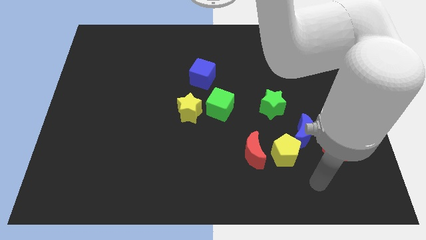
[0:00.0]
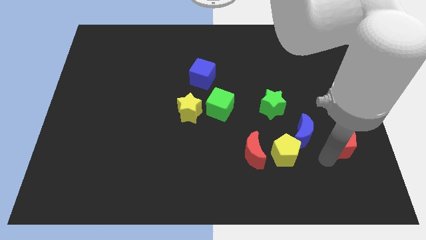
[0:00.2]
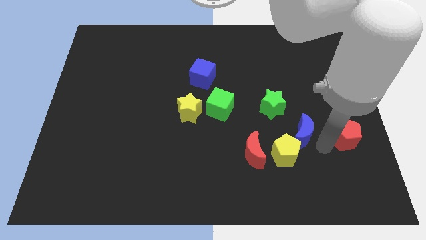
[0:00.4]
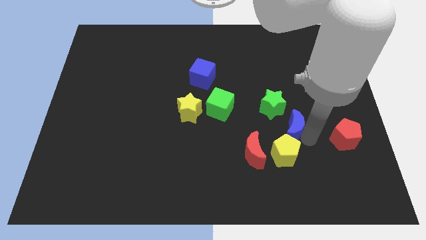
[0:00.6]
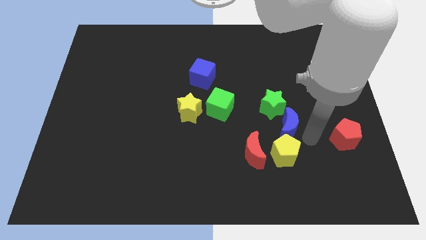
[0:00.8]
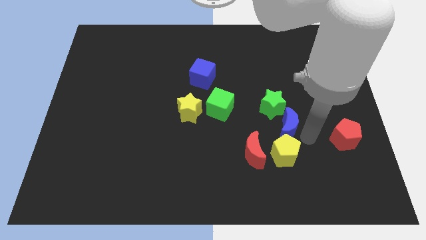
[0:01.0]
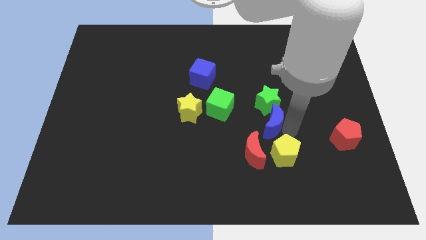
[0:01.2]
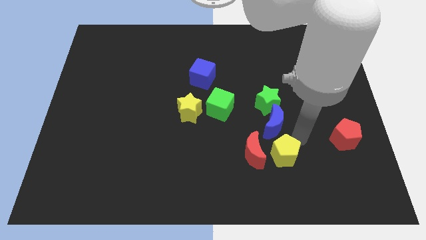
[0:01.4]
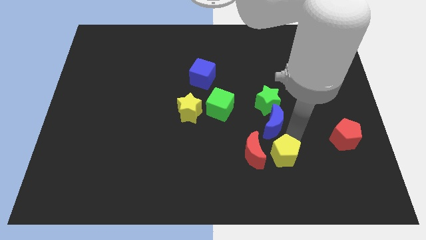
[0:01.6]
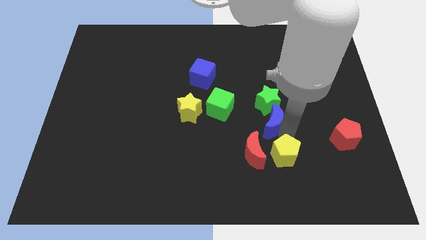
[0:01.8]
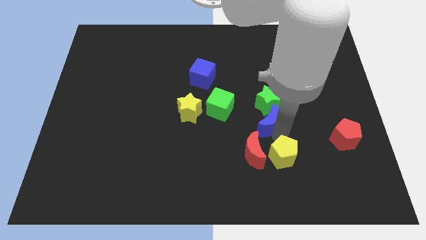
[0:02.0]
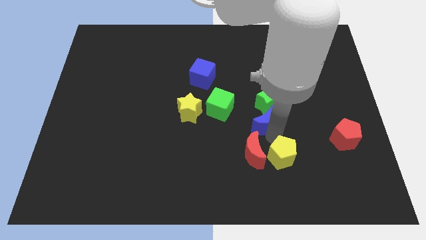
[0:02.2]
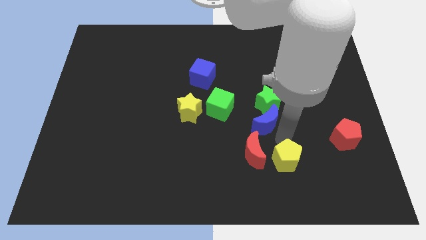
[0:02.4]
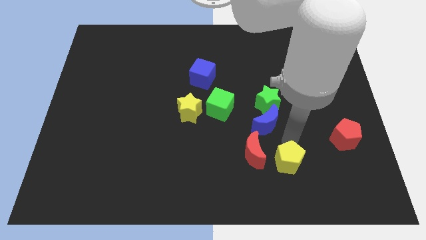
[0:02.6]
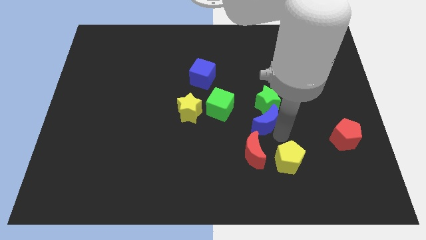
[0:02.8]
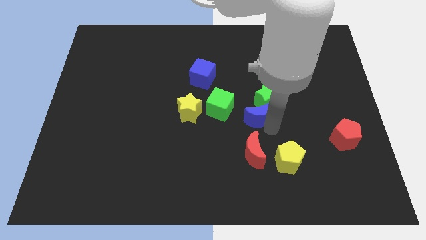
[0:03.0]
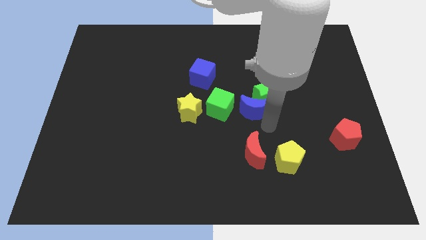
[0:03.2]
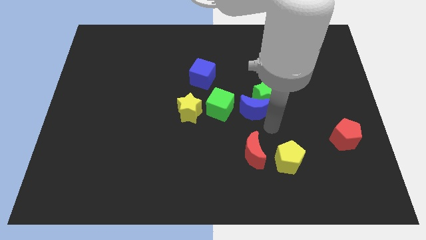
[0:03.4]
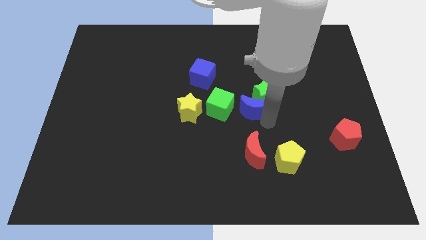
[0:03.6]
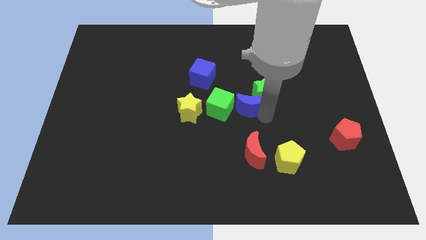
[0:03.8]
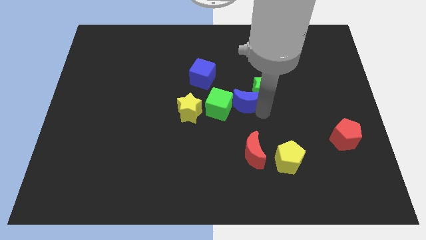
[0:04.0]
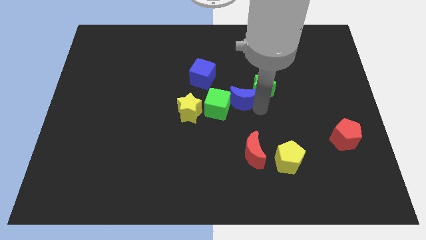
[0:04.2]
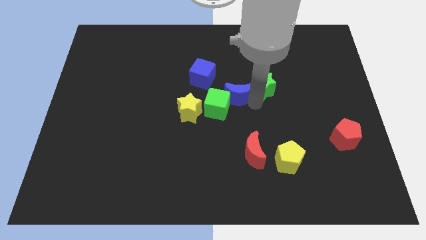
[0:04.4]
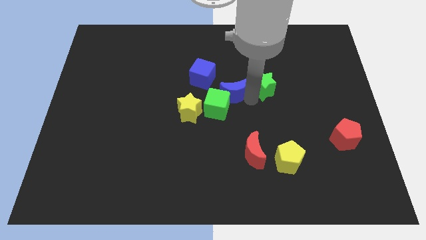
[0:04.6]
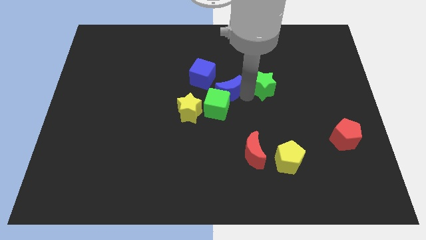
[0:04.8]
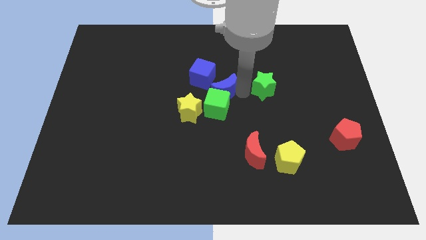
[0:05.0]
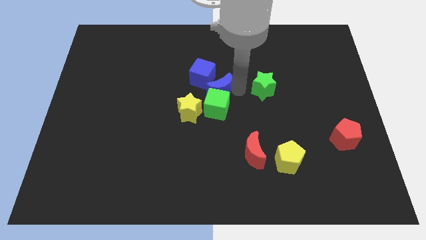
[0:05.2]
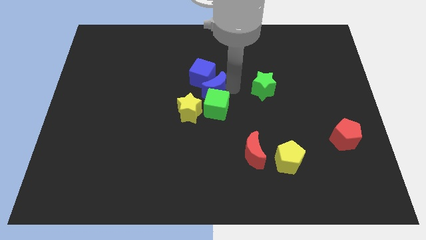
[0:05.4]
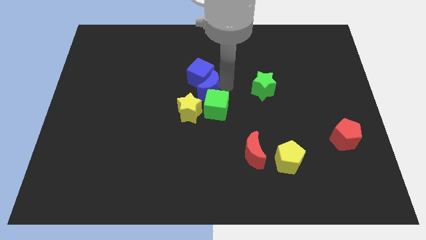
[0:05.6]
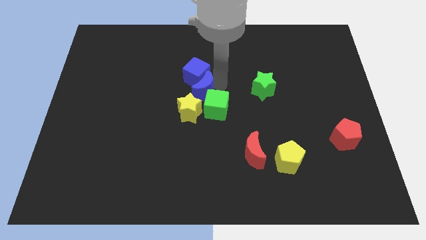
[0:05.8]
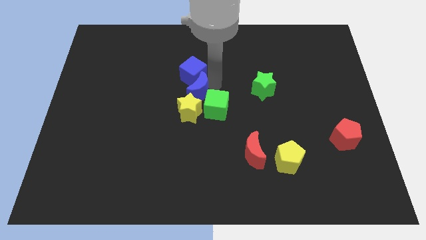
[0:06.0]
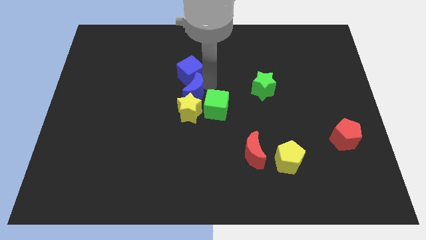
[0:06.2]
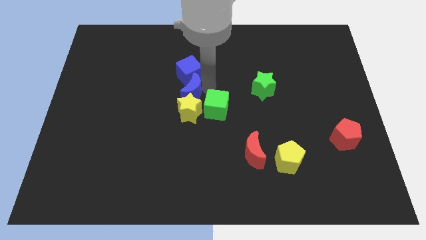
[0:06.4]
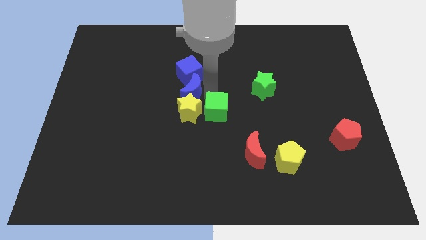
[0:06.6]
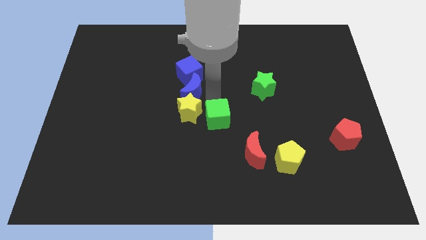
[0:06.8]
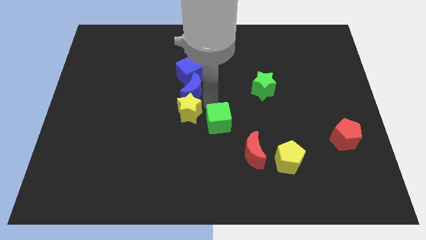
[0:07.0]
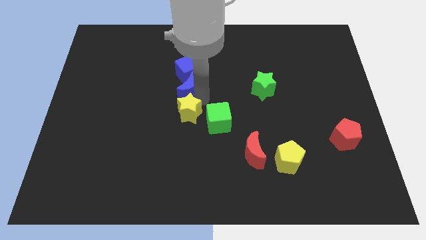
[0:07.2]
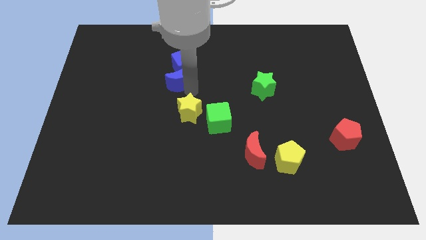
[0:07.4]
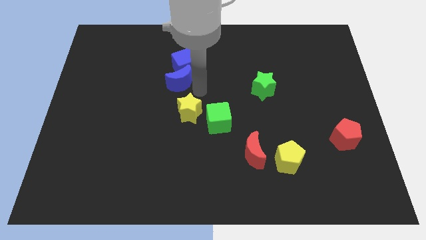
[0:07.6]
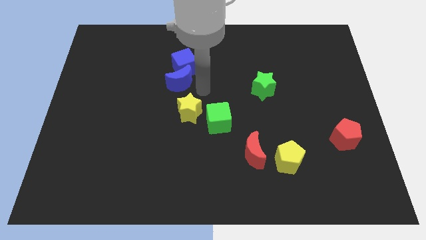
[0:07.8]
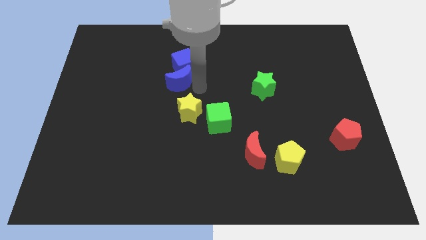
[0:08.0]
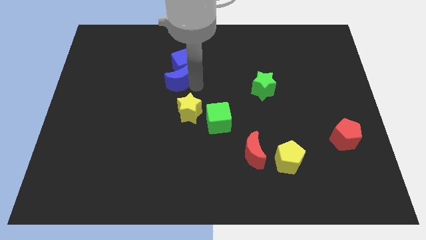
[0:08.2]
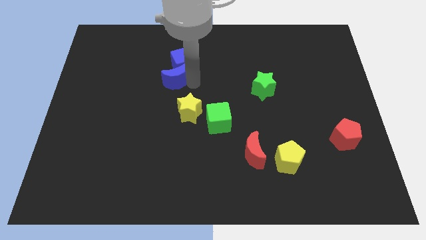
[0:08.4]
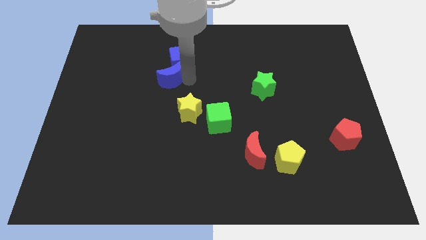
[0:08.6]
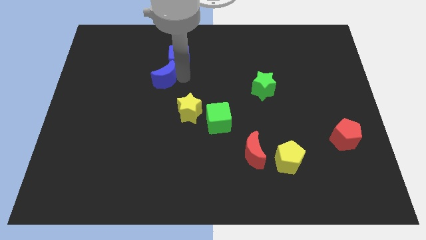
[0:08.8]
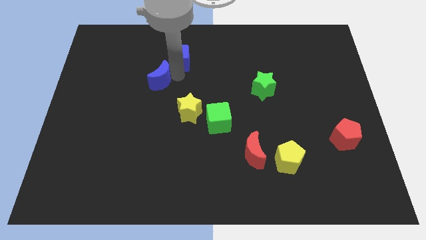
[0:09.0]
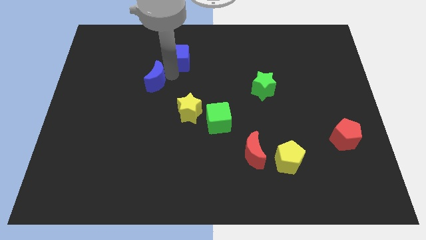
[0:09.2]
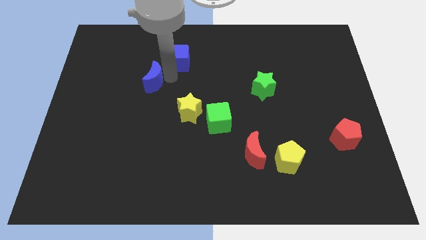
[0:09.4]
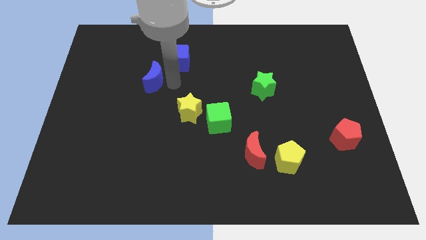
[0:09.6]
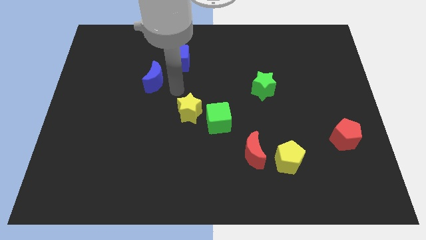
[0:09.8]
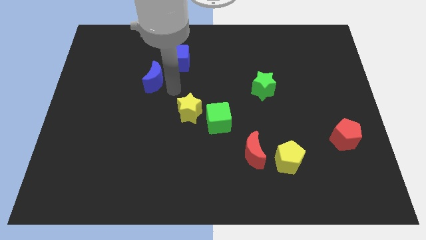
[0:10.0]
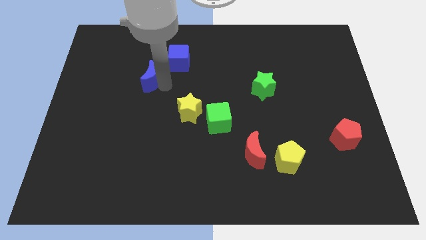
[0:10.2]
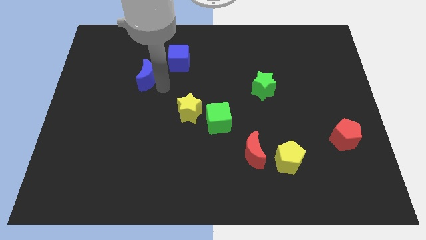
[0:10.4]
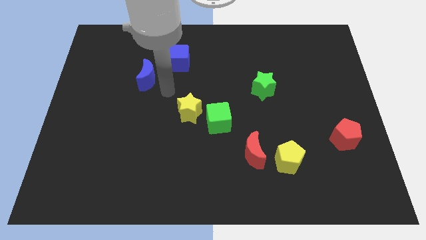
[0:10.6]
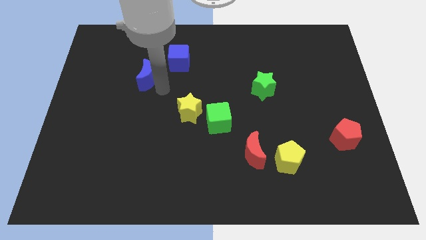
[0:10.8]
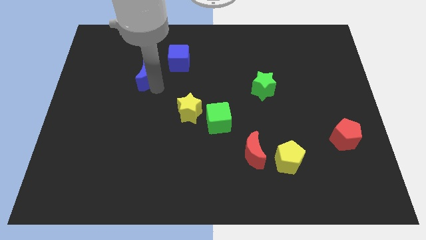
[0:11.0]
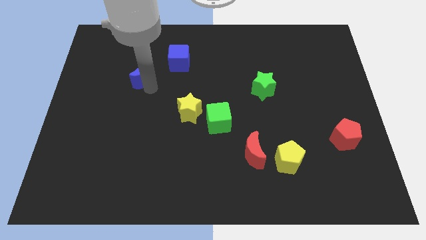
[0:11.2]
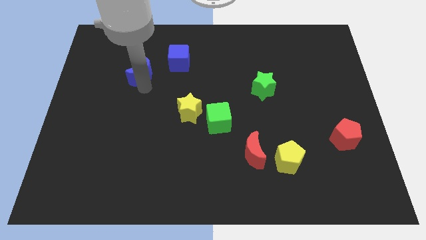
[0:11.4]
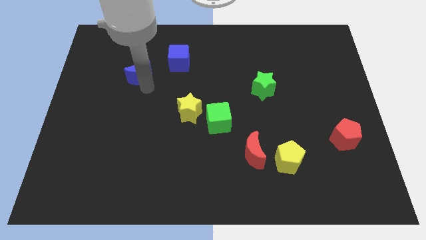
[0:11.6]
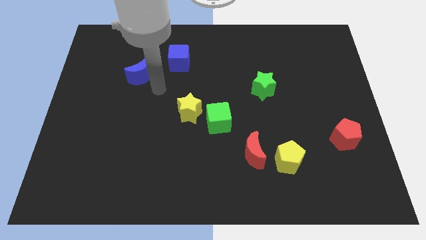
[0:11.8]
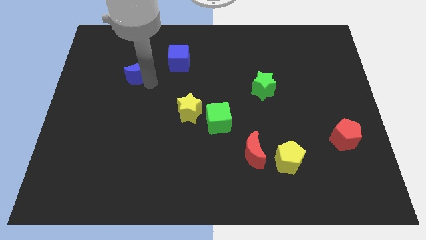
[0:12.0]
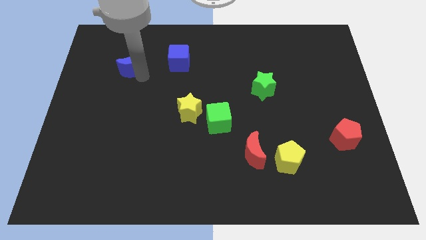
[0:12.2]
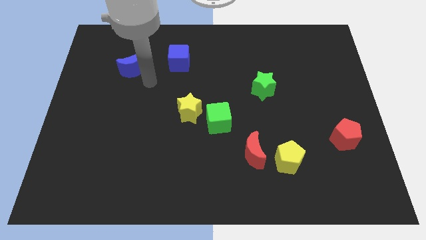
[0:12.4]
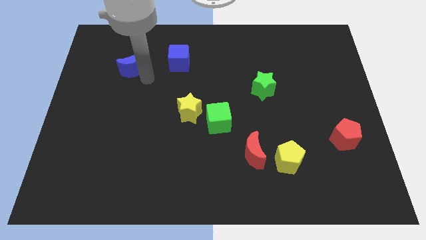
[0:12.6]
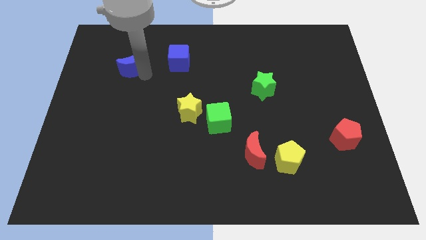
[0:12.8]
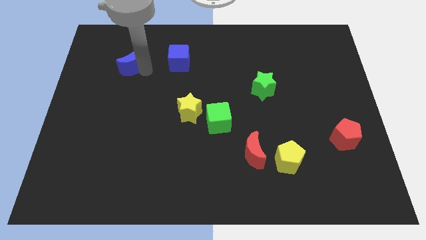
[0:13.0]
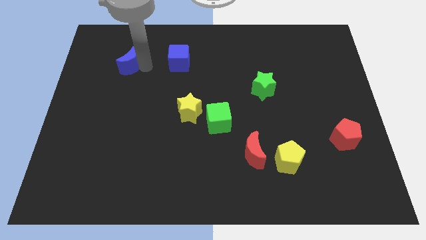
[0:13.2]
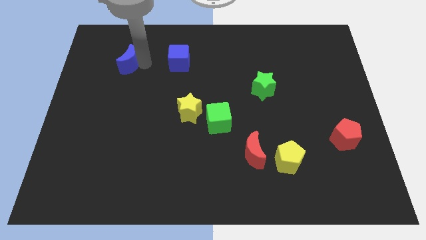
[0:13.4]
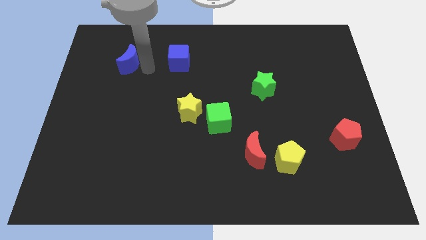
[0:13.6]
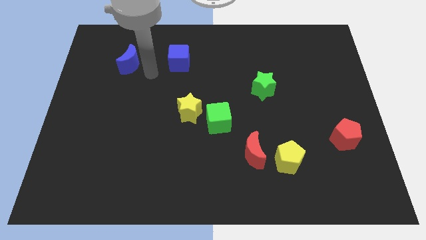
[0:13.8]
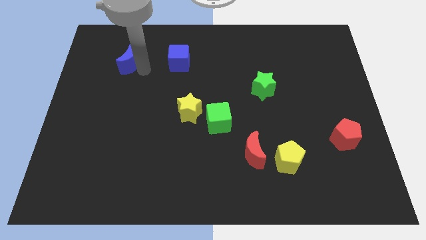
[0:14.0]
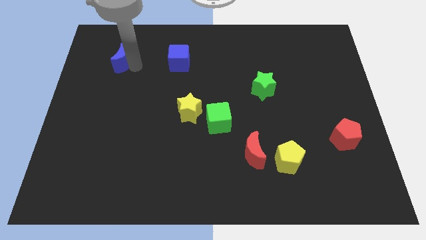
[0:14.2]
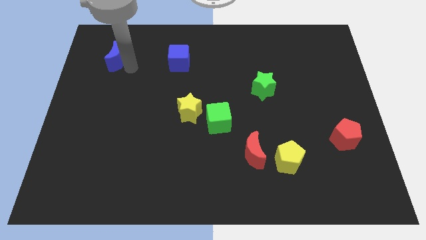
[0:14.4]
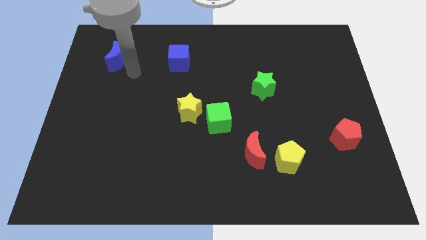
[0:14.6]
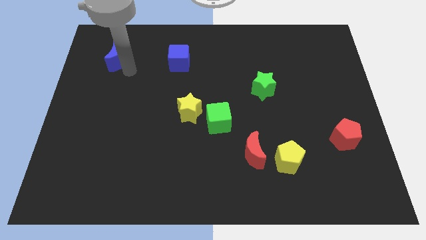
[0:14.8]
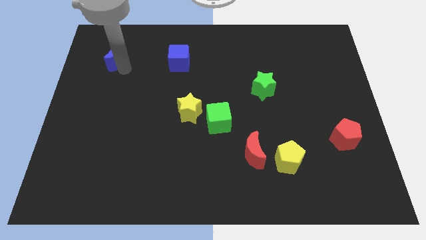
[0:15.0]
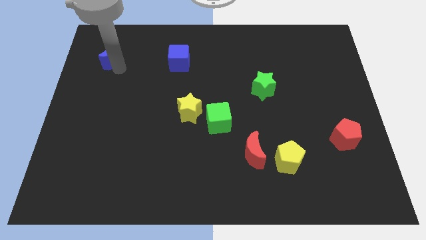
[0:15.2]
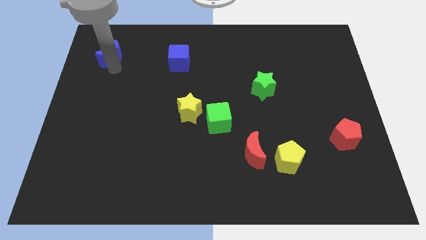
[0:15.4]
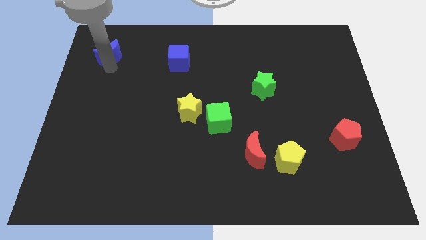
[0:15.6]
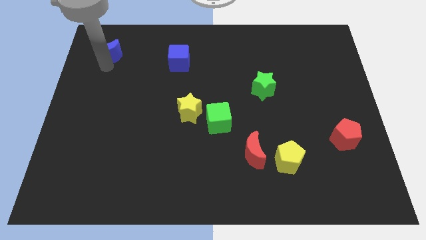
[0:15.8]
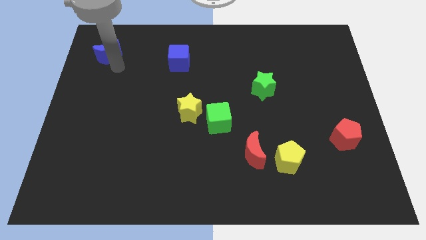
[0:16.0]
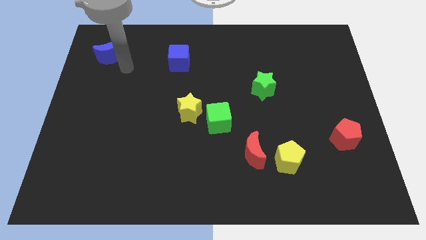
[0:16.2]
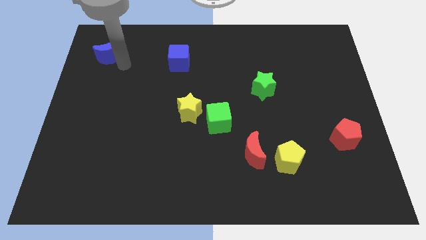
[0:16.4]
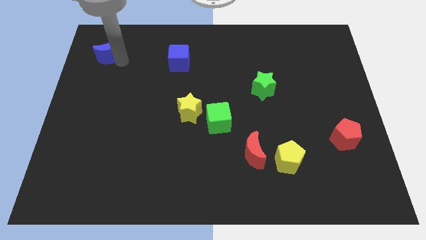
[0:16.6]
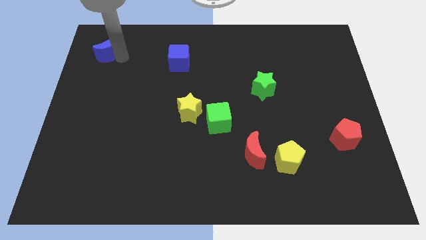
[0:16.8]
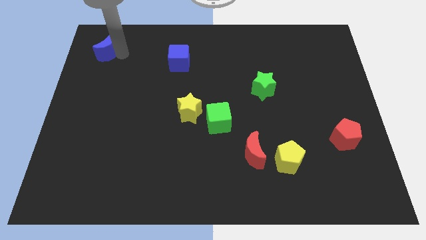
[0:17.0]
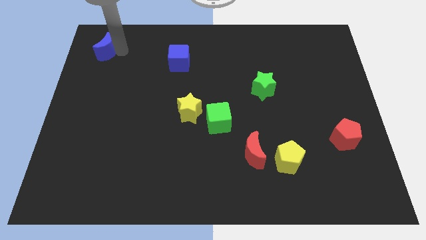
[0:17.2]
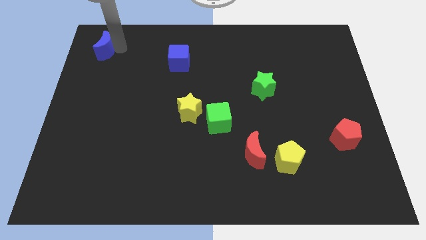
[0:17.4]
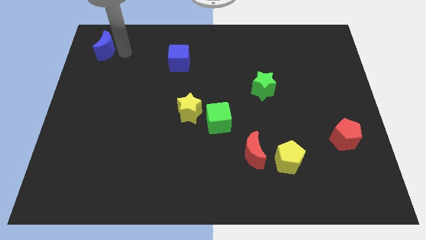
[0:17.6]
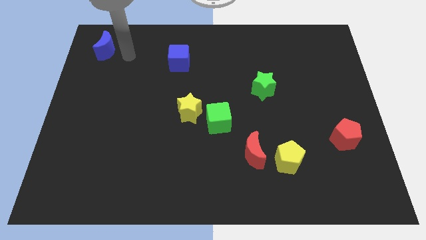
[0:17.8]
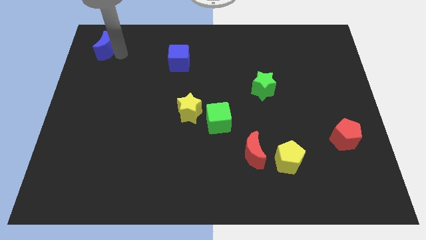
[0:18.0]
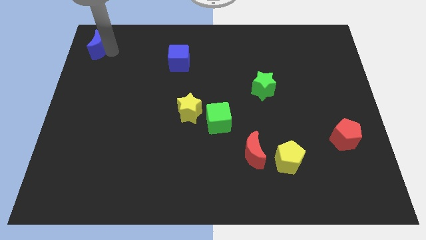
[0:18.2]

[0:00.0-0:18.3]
push the blue moon to the top left corner
